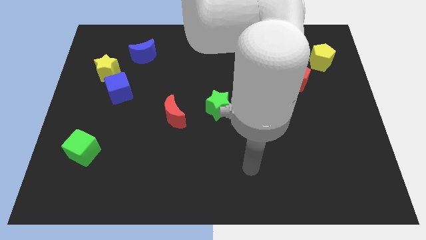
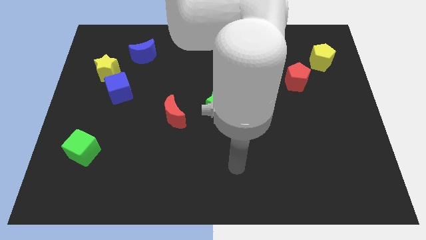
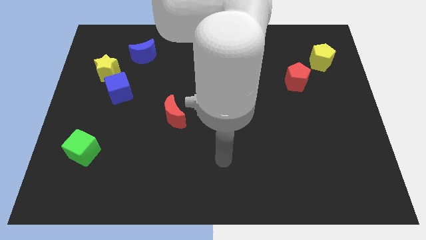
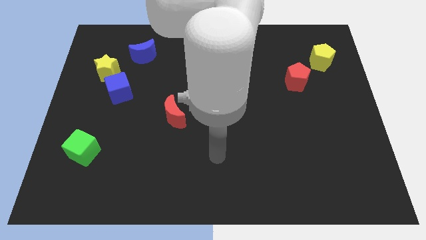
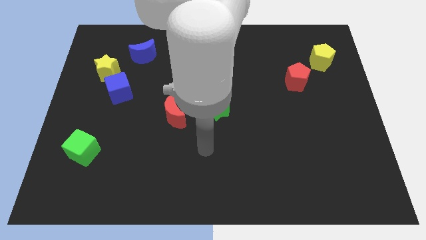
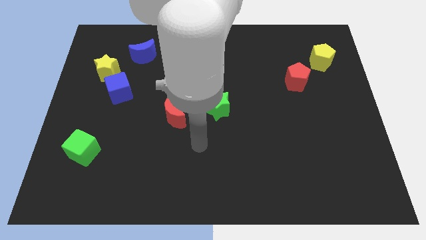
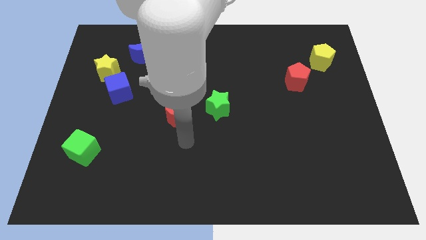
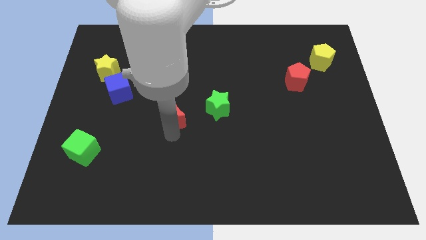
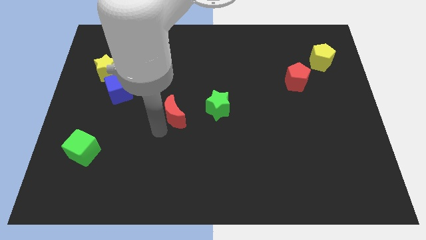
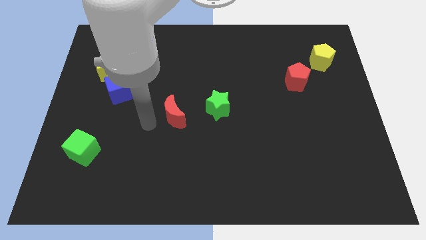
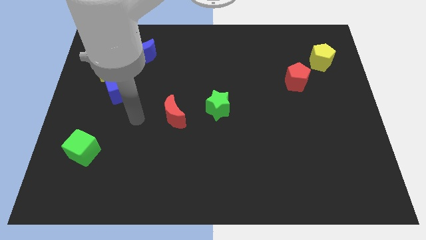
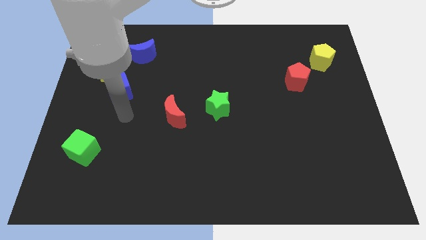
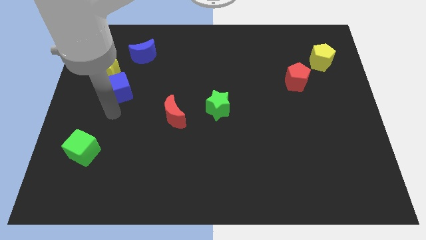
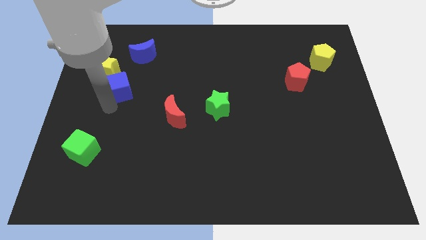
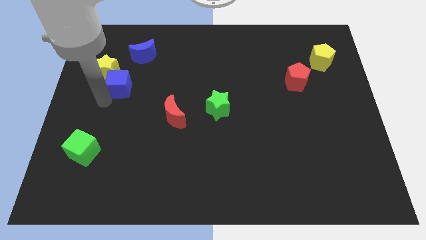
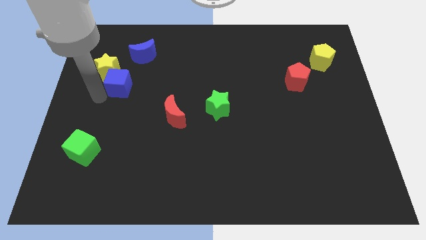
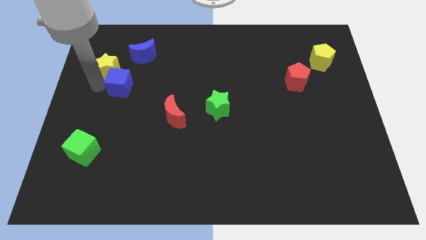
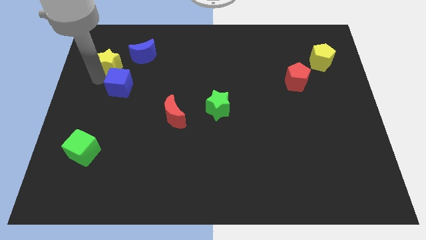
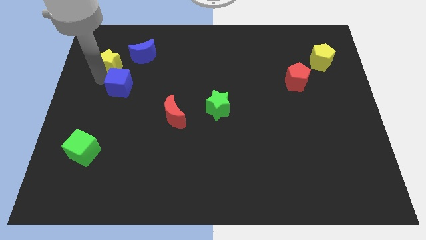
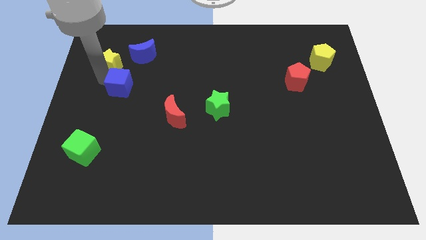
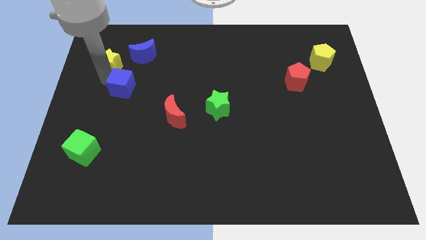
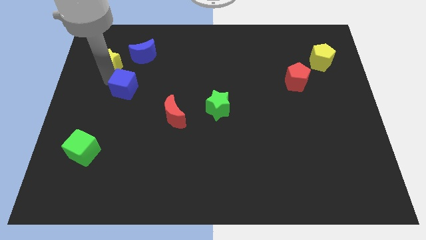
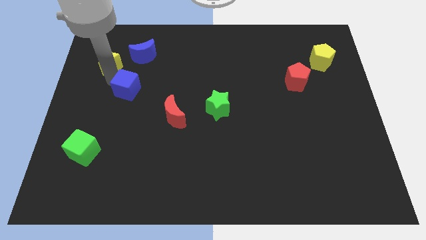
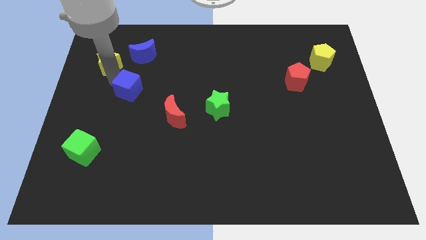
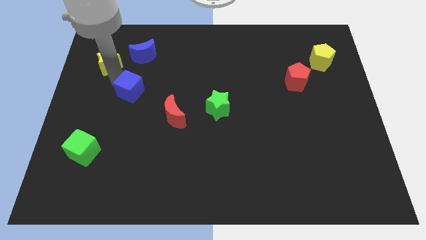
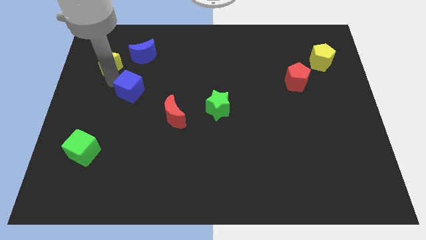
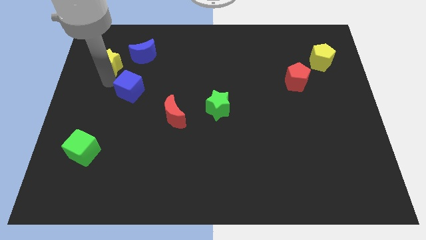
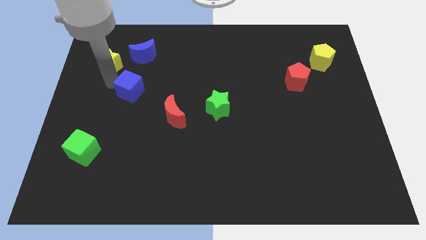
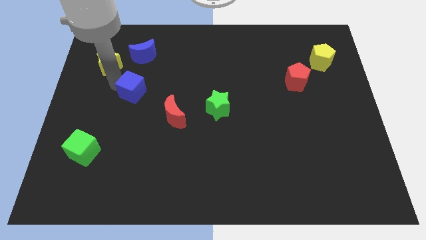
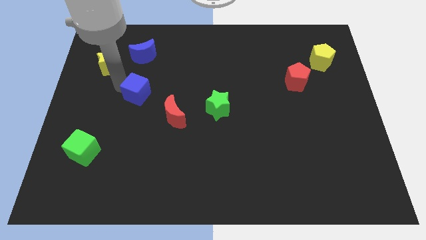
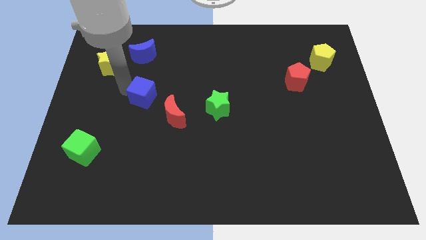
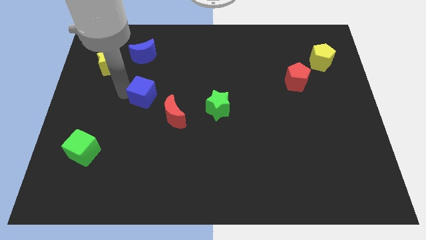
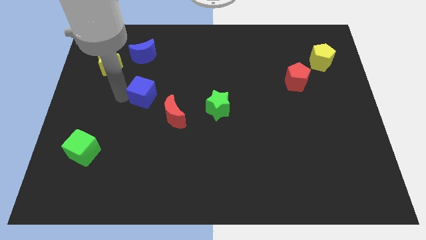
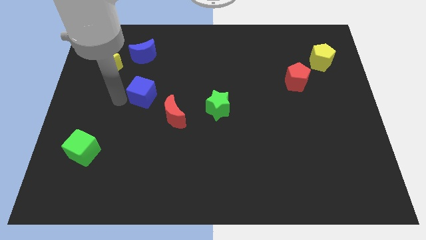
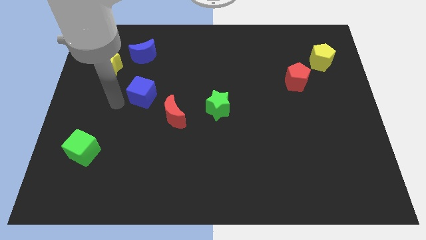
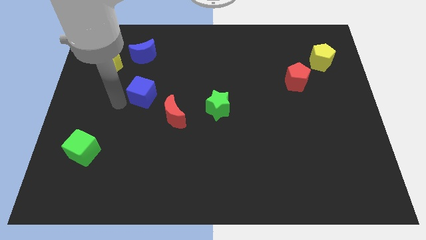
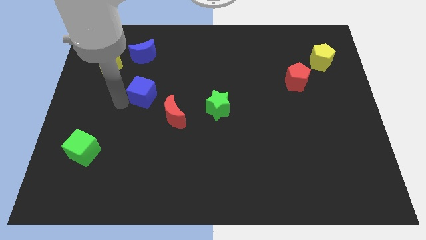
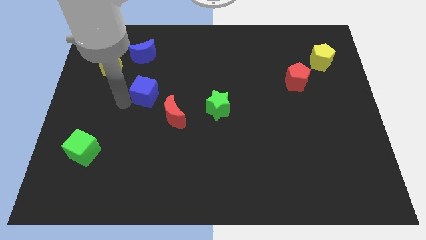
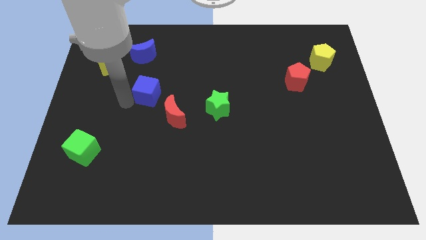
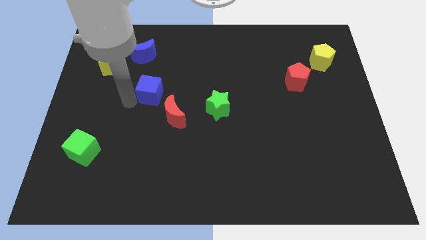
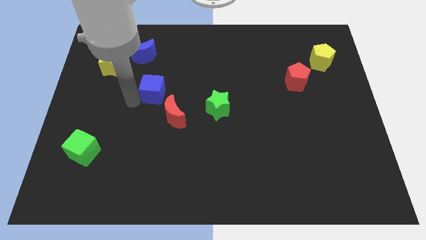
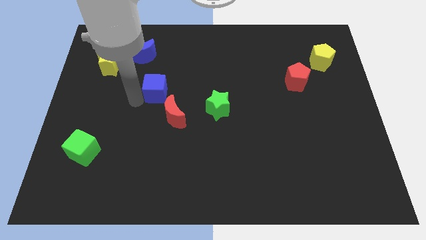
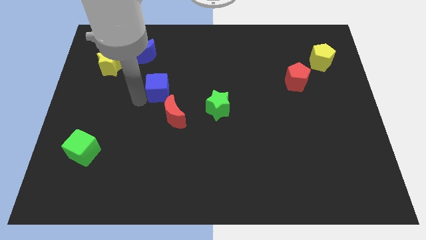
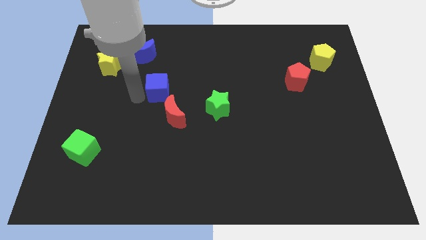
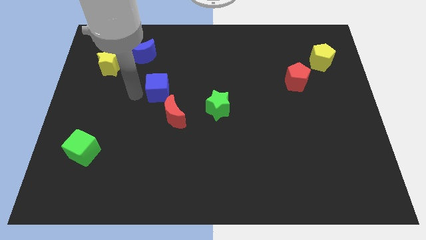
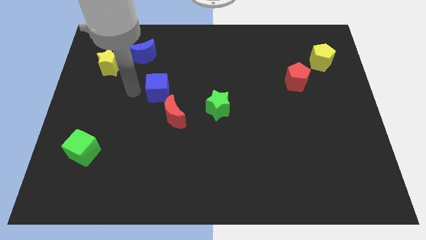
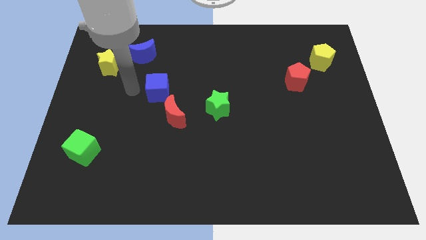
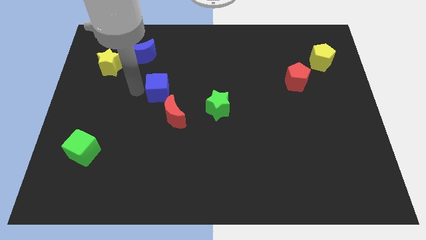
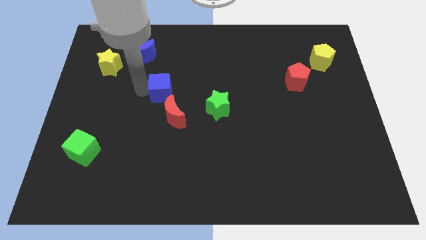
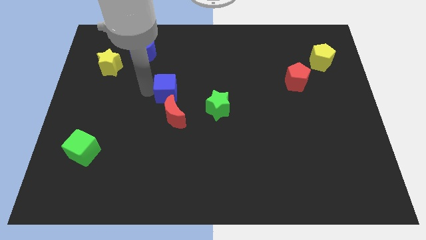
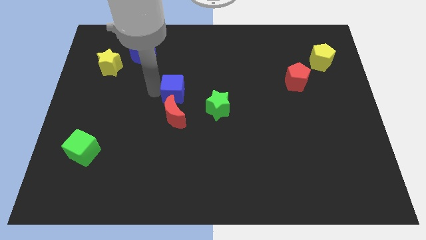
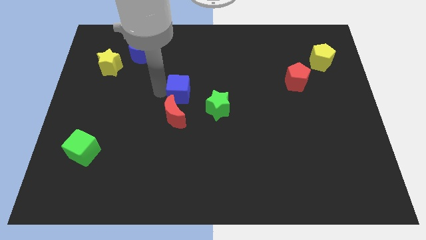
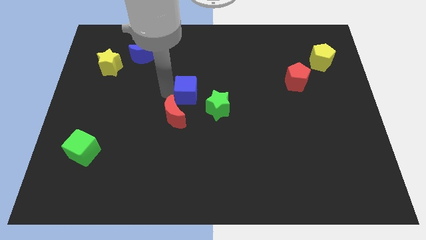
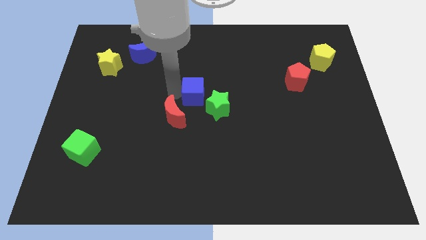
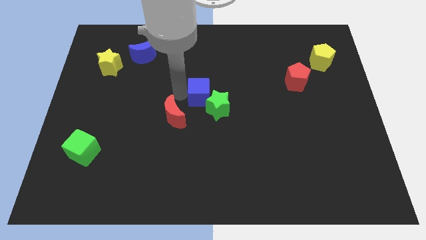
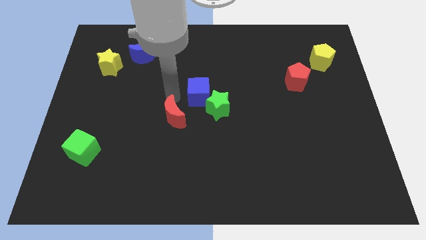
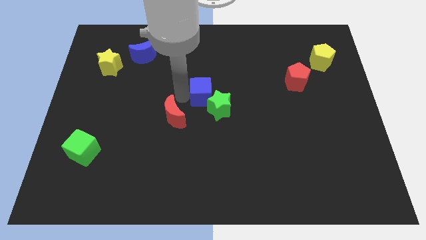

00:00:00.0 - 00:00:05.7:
push the blue cube to the right

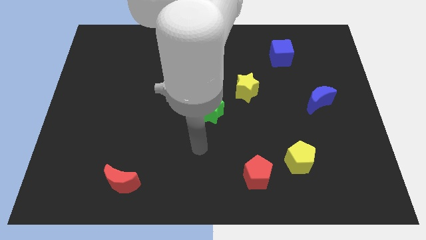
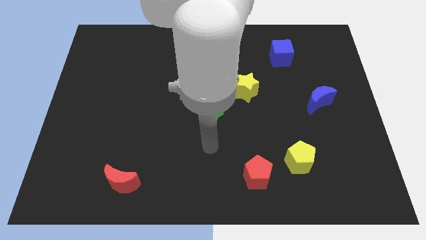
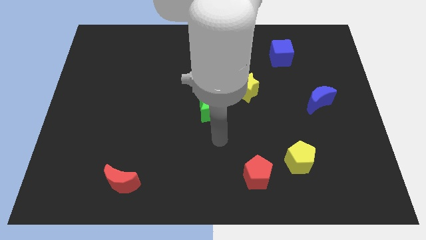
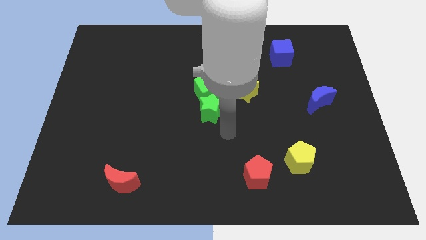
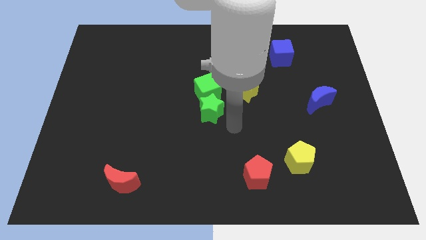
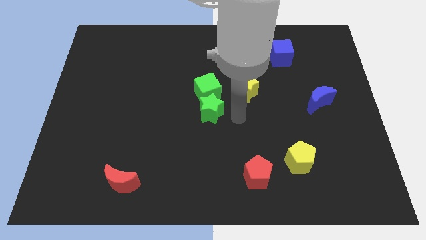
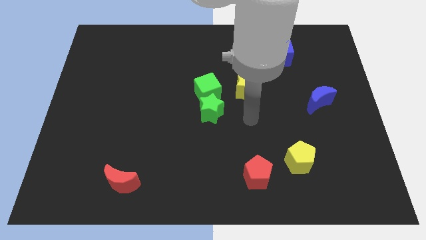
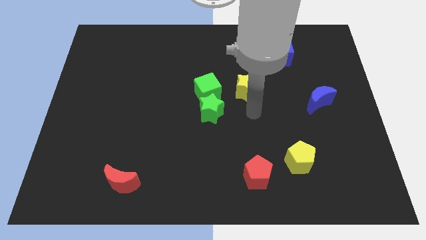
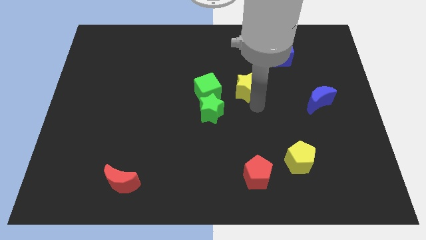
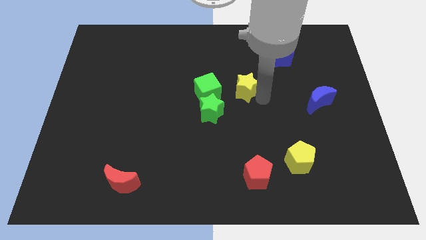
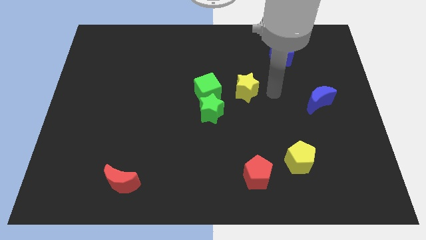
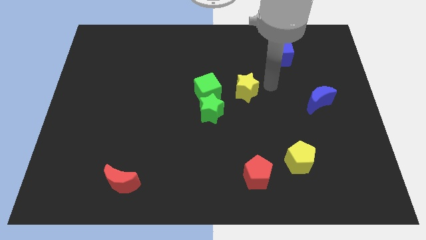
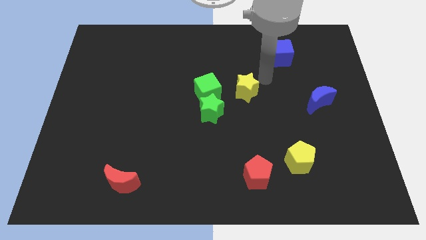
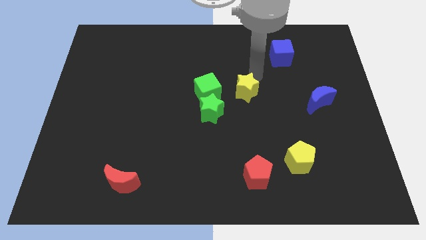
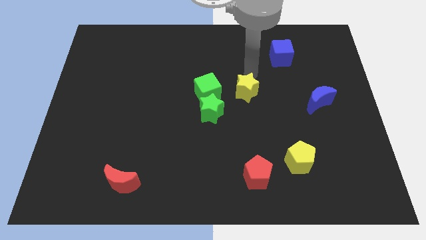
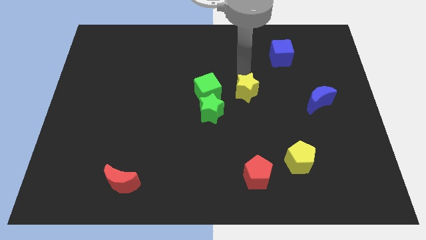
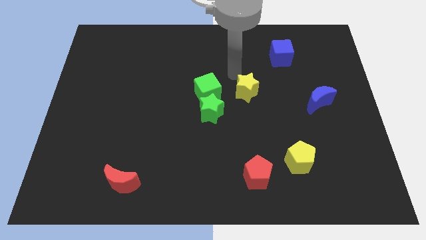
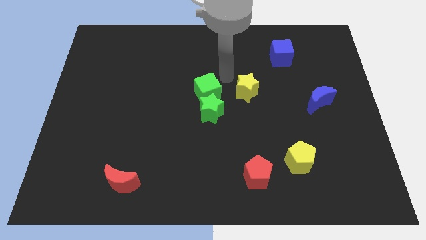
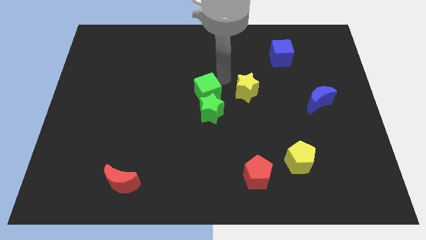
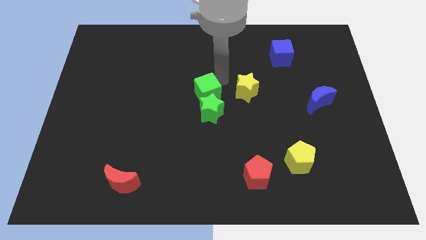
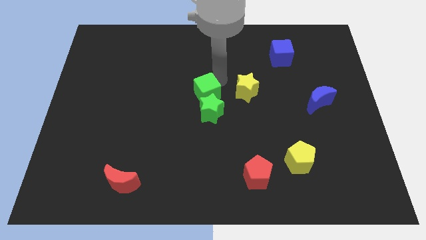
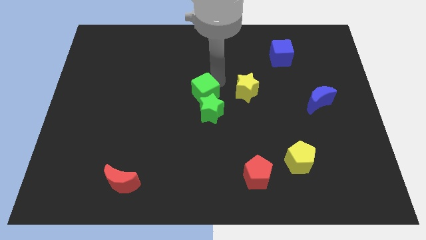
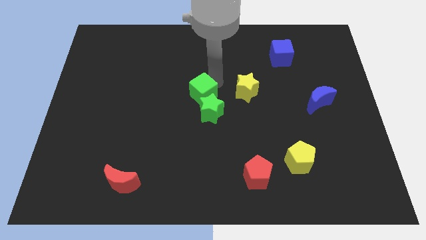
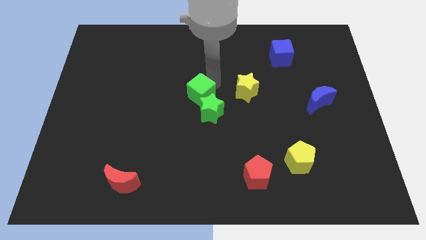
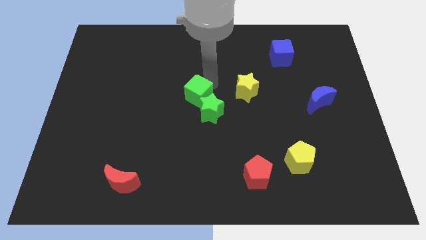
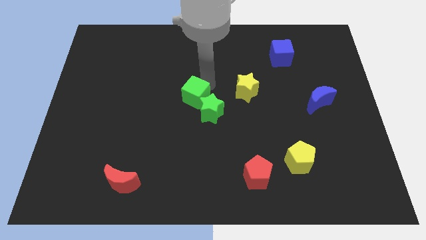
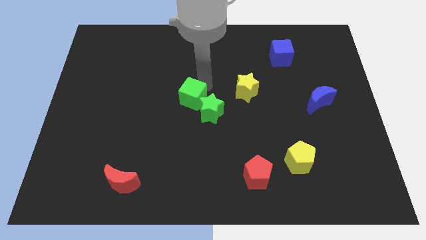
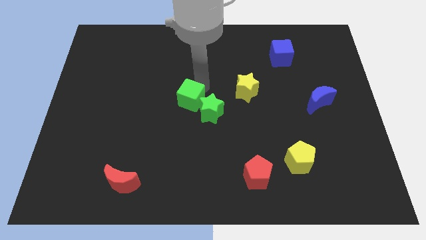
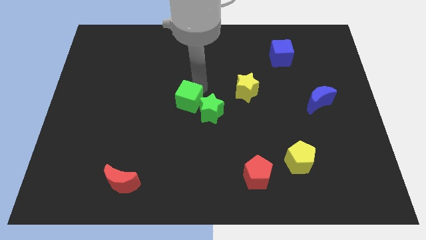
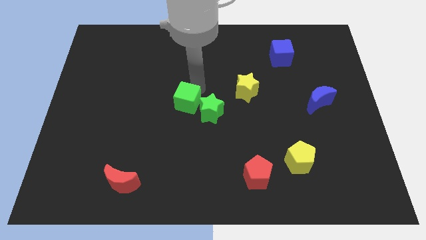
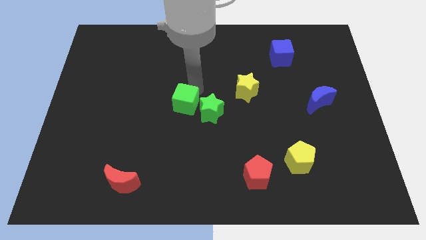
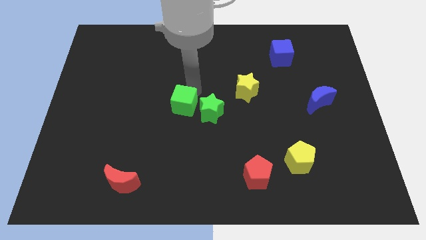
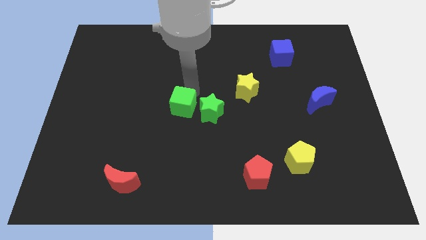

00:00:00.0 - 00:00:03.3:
push the green cube a bit down and to the left
